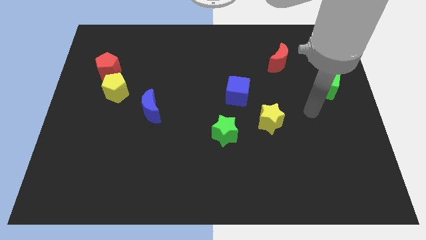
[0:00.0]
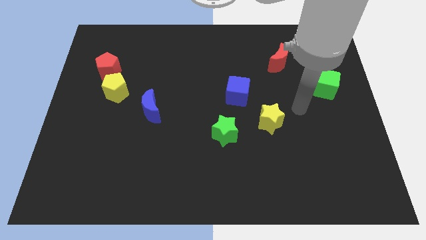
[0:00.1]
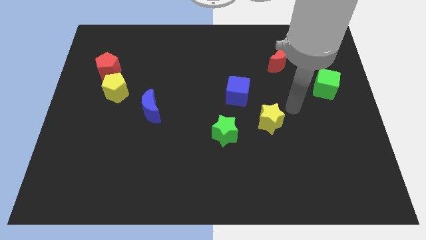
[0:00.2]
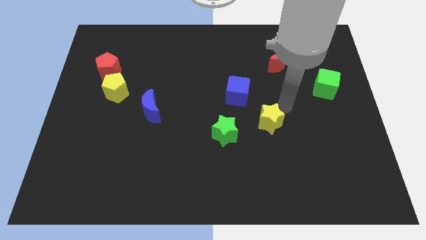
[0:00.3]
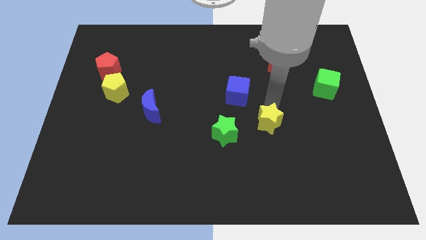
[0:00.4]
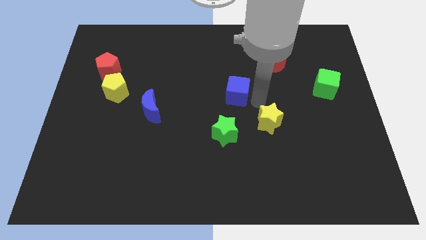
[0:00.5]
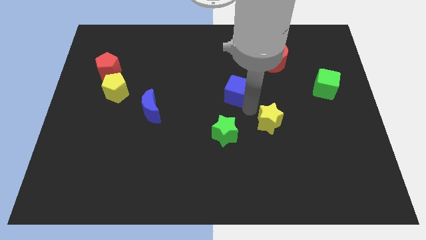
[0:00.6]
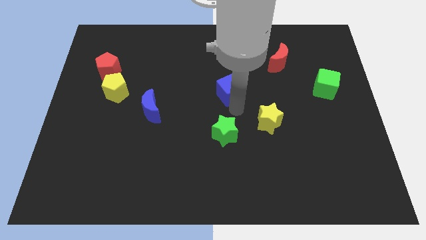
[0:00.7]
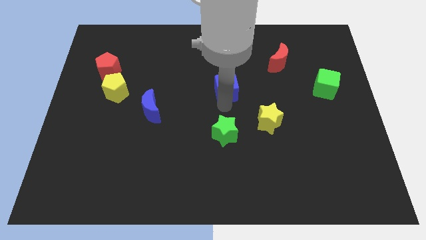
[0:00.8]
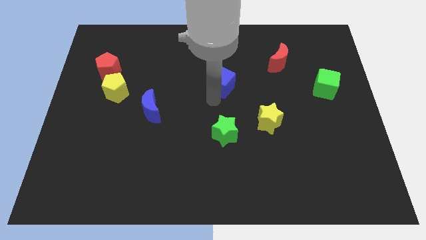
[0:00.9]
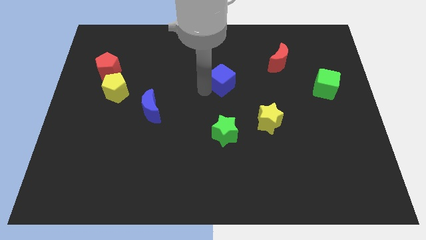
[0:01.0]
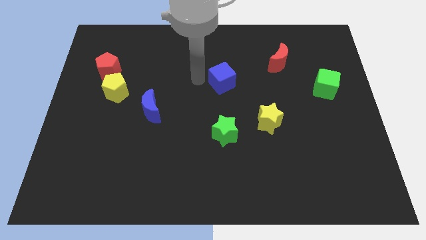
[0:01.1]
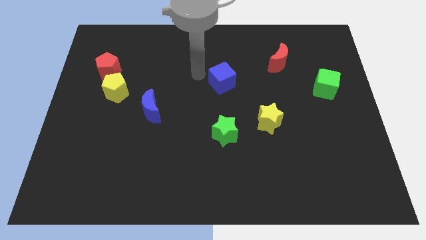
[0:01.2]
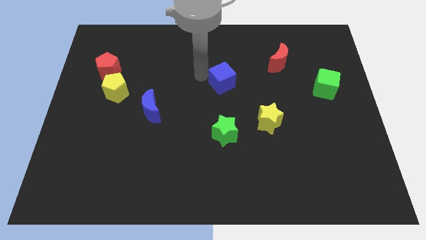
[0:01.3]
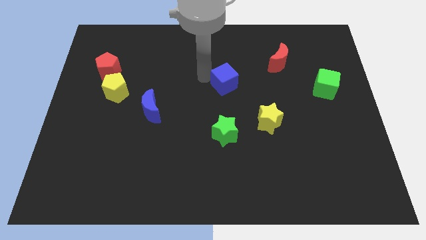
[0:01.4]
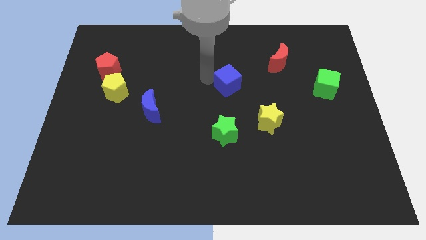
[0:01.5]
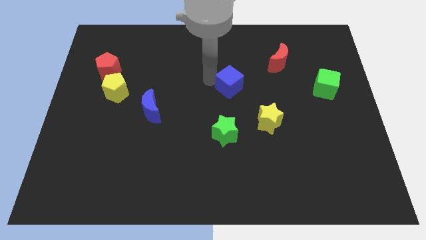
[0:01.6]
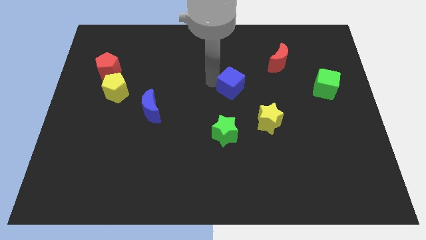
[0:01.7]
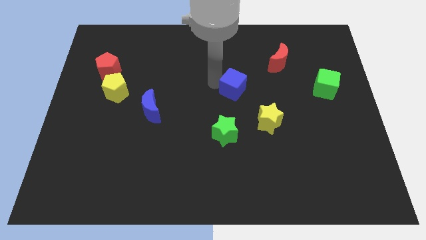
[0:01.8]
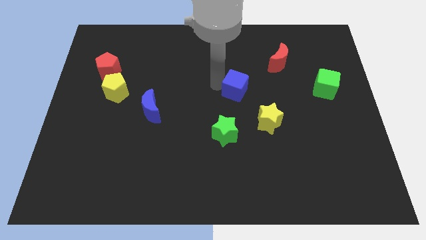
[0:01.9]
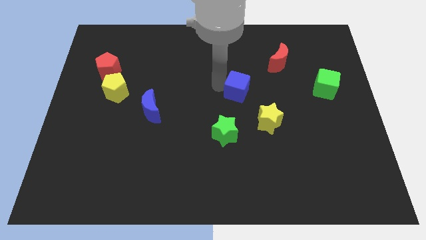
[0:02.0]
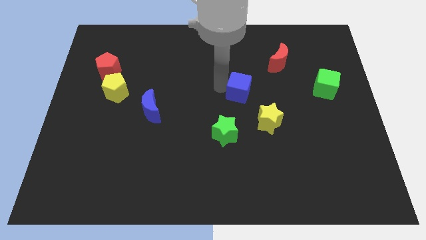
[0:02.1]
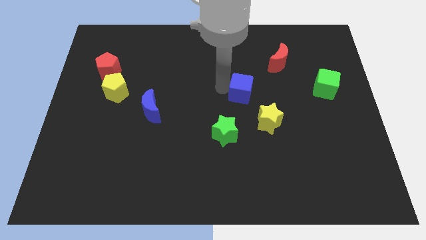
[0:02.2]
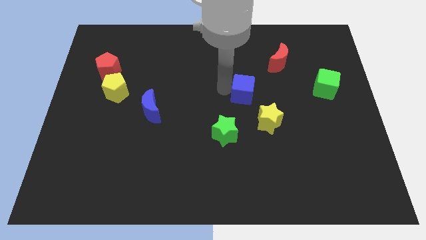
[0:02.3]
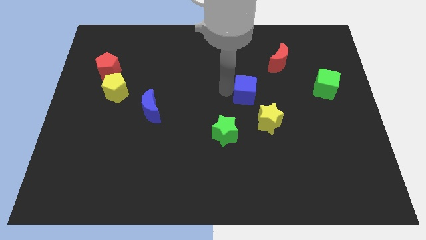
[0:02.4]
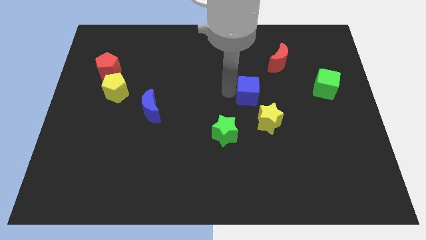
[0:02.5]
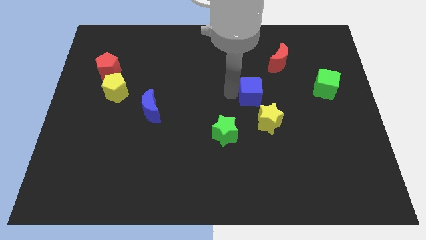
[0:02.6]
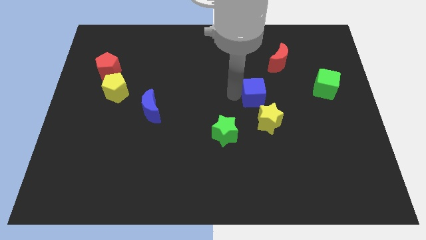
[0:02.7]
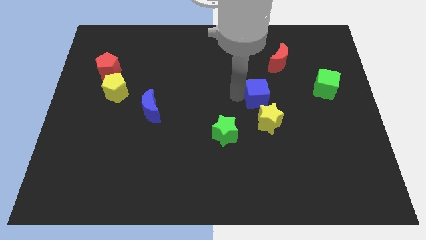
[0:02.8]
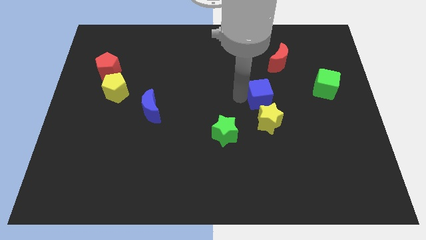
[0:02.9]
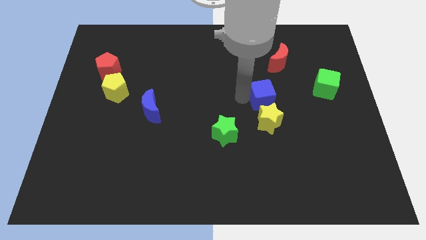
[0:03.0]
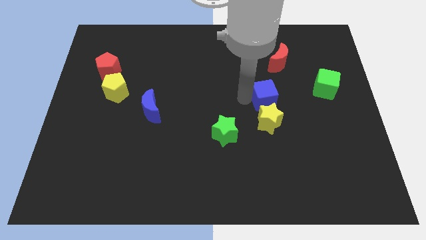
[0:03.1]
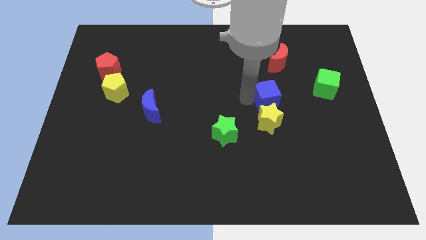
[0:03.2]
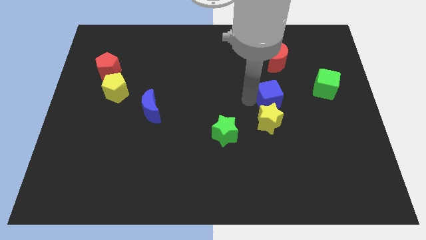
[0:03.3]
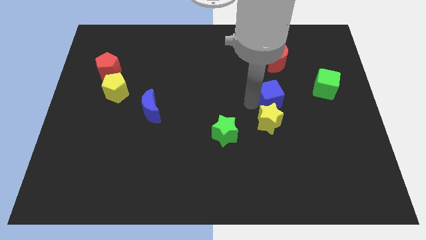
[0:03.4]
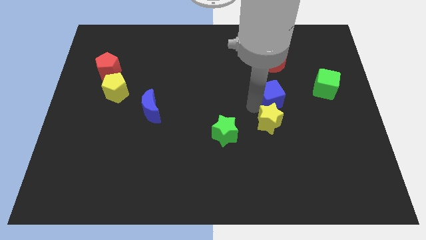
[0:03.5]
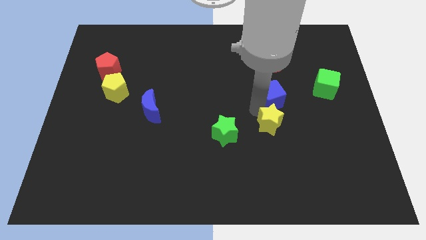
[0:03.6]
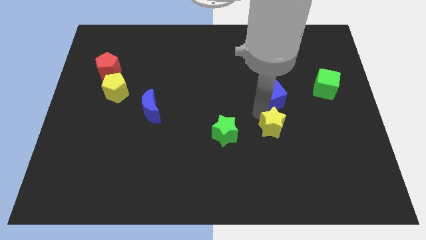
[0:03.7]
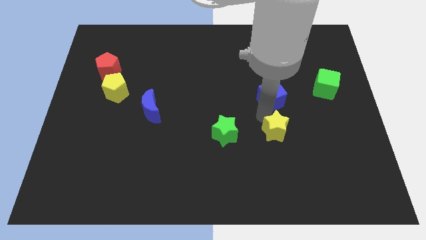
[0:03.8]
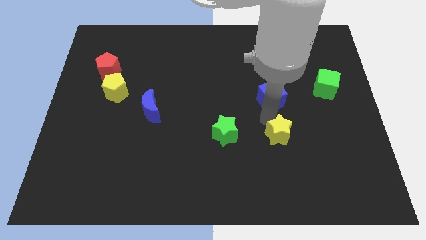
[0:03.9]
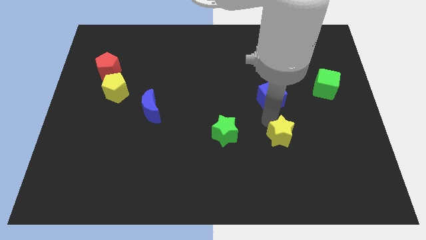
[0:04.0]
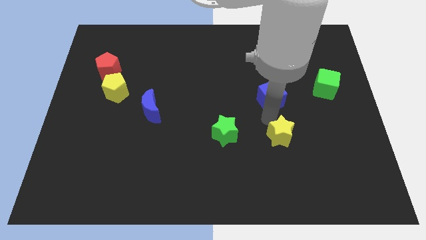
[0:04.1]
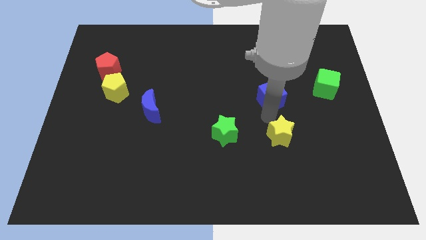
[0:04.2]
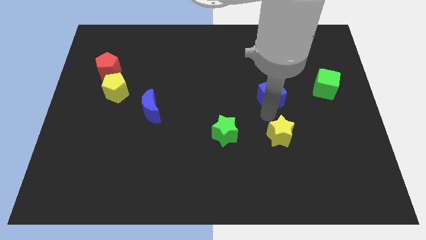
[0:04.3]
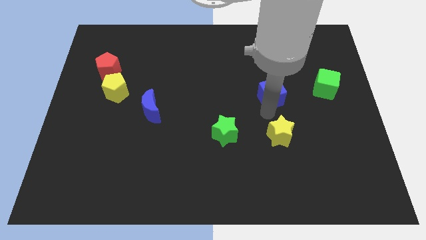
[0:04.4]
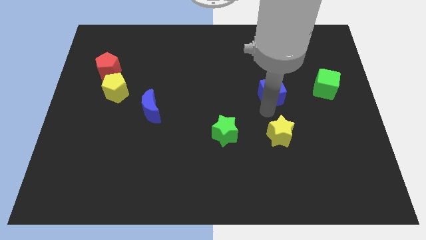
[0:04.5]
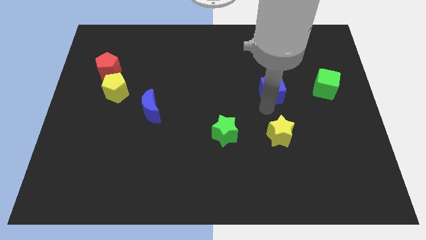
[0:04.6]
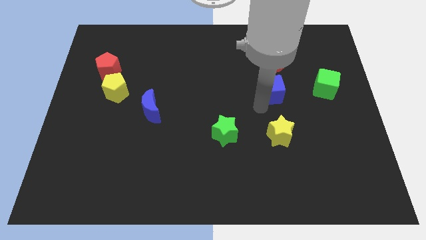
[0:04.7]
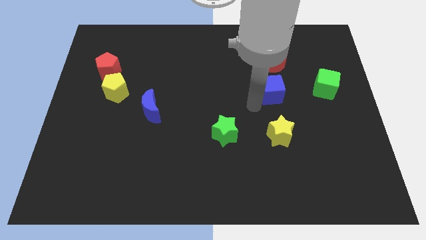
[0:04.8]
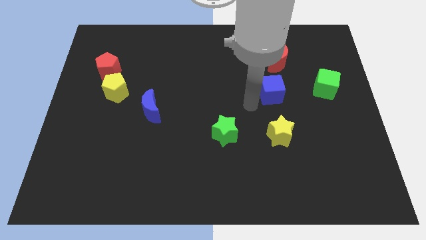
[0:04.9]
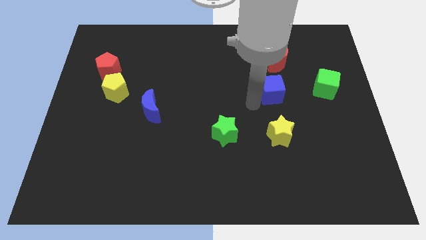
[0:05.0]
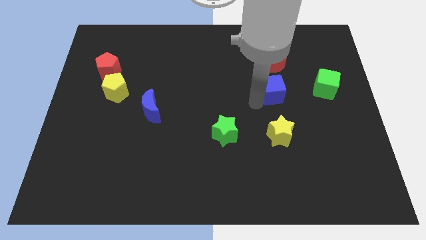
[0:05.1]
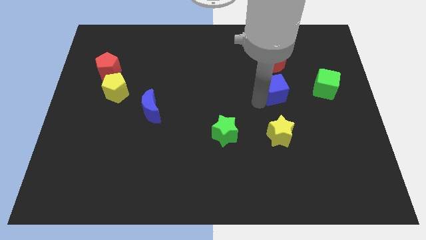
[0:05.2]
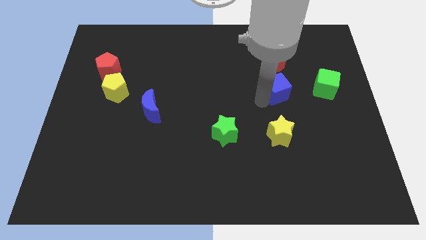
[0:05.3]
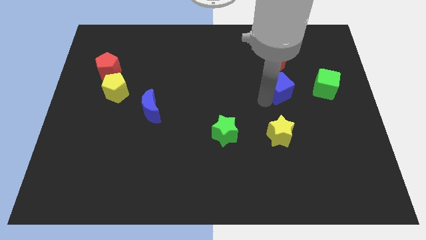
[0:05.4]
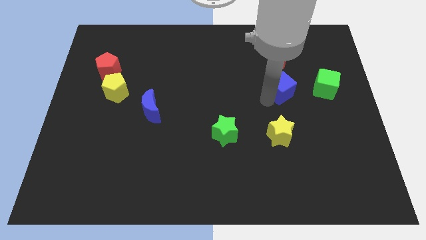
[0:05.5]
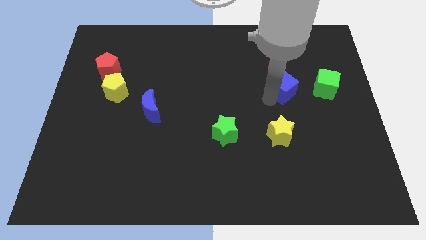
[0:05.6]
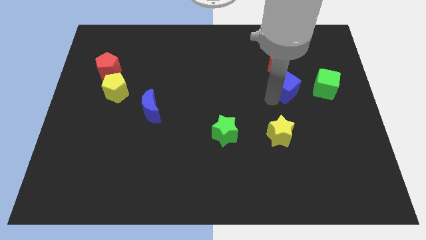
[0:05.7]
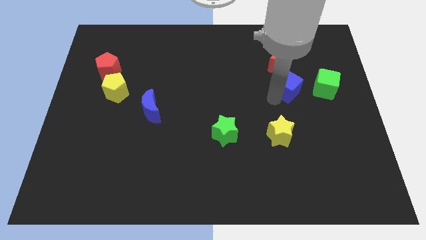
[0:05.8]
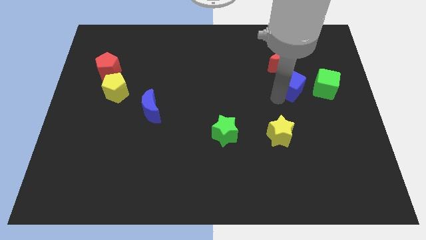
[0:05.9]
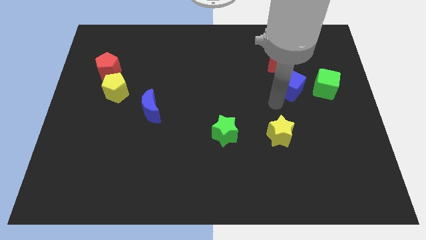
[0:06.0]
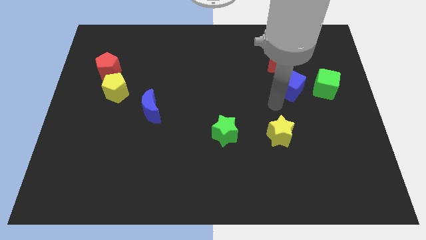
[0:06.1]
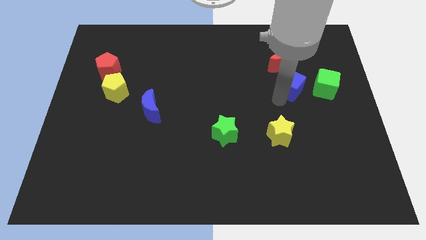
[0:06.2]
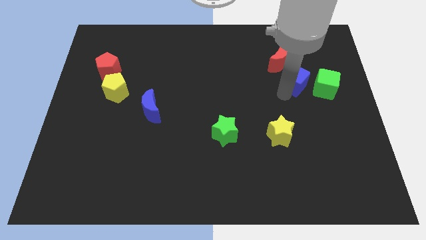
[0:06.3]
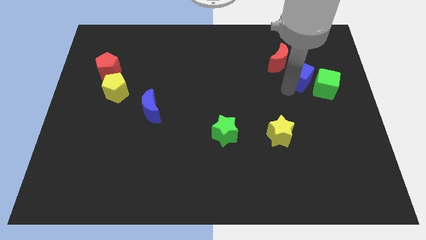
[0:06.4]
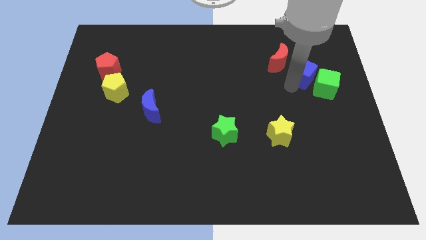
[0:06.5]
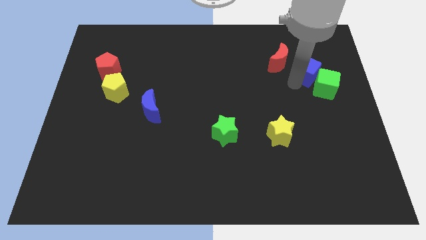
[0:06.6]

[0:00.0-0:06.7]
move the blue cube to the top side of the green cube
